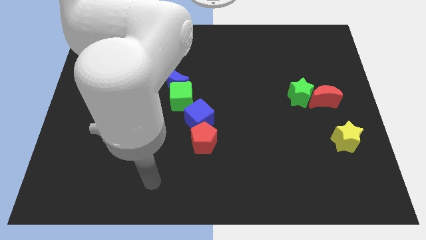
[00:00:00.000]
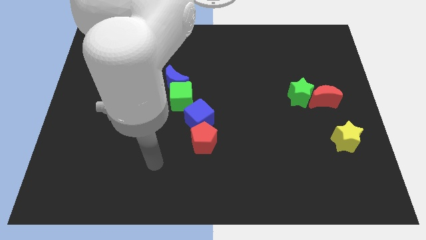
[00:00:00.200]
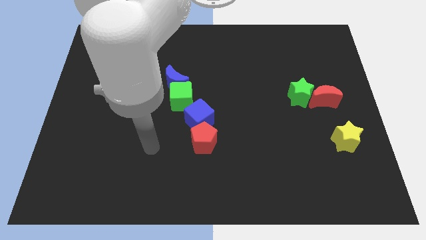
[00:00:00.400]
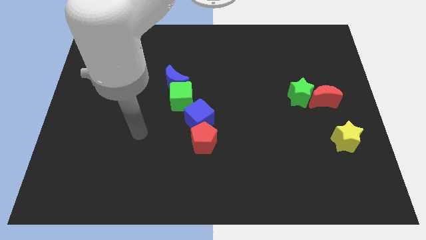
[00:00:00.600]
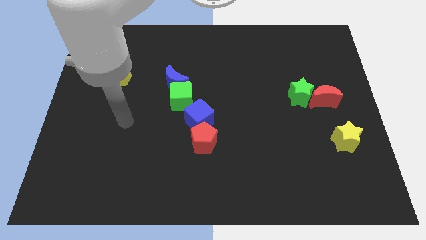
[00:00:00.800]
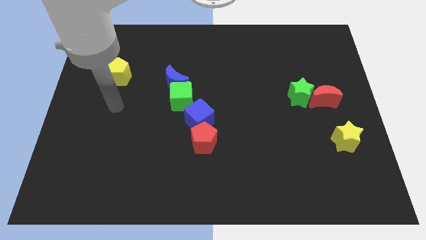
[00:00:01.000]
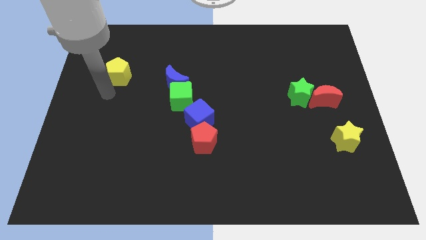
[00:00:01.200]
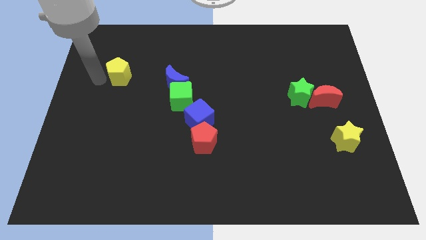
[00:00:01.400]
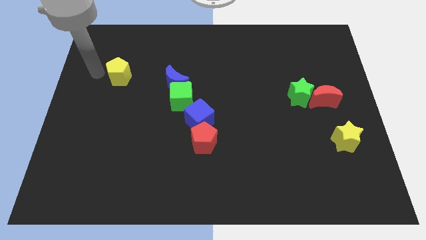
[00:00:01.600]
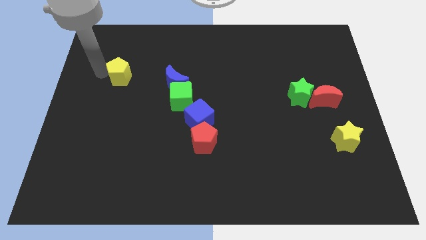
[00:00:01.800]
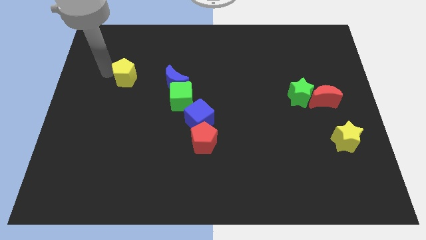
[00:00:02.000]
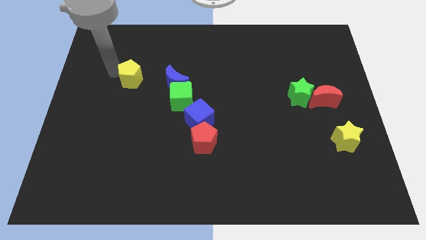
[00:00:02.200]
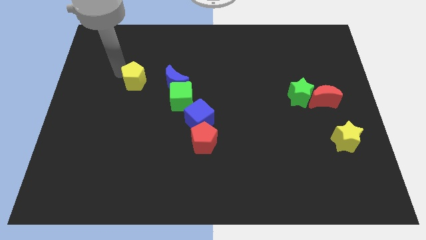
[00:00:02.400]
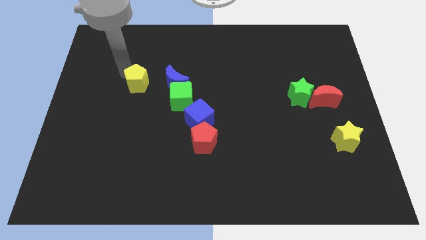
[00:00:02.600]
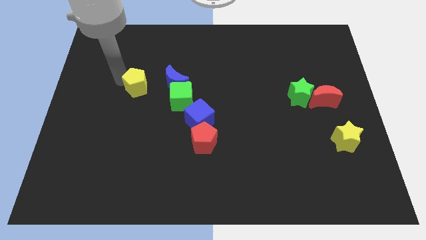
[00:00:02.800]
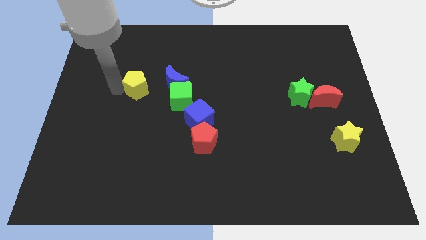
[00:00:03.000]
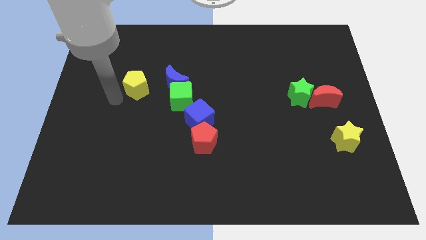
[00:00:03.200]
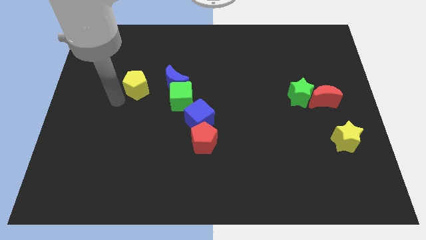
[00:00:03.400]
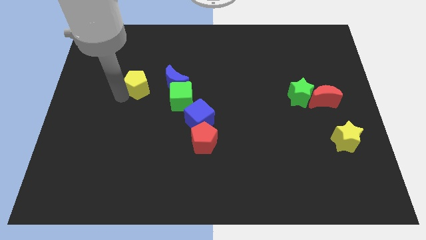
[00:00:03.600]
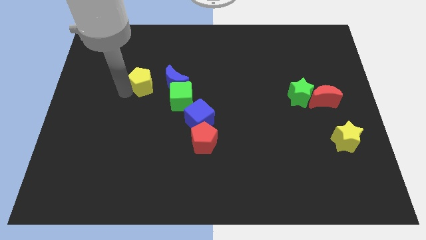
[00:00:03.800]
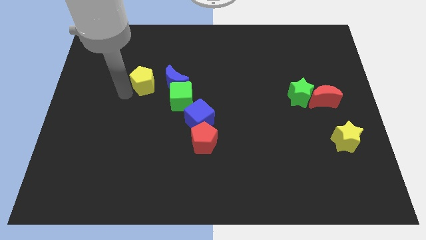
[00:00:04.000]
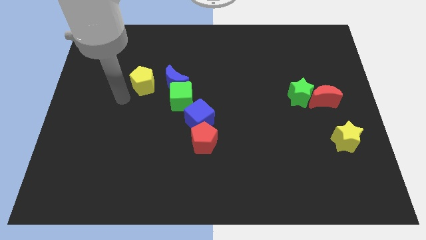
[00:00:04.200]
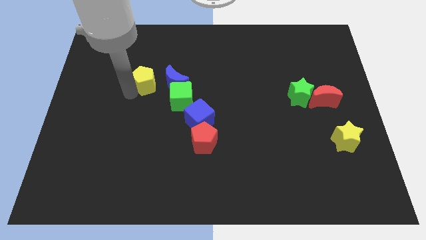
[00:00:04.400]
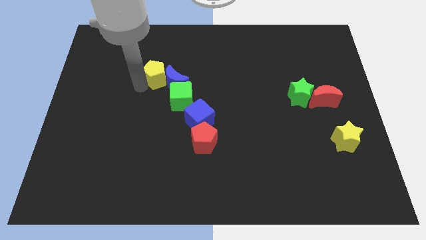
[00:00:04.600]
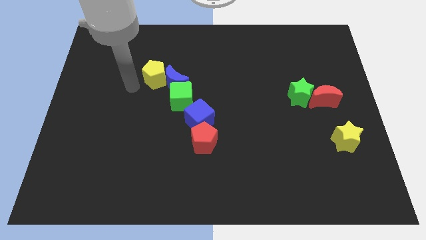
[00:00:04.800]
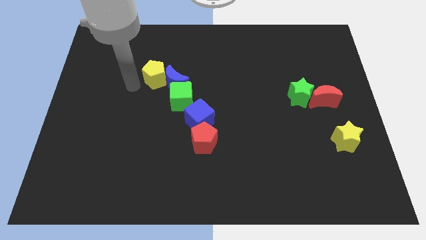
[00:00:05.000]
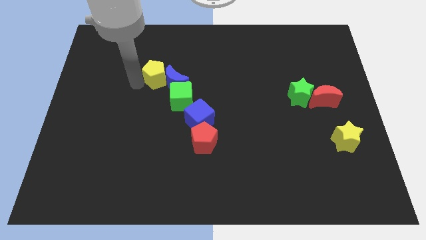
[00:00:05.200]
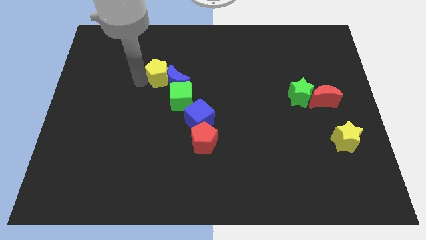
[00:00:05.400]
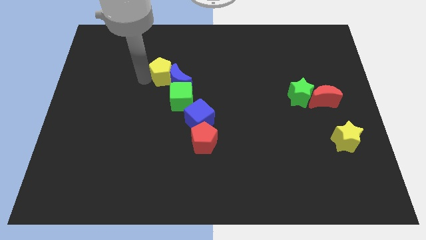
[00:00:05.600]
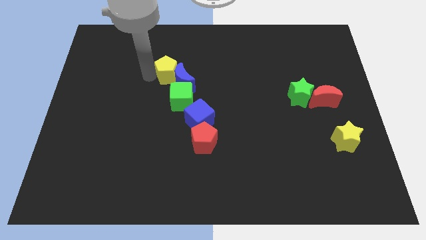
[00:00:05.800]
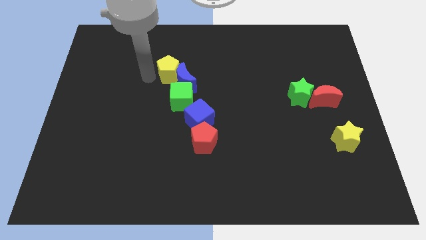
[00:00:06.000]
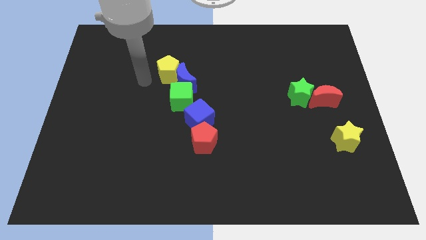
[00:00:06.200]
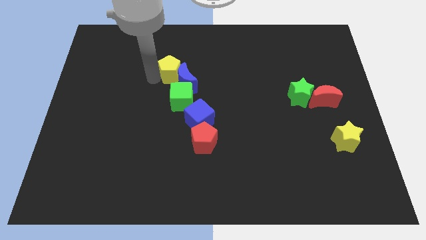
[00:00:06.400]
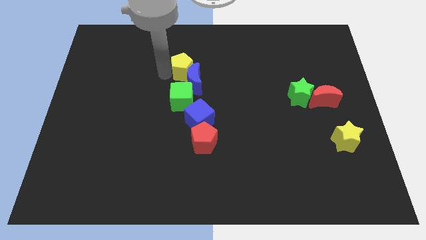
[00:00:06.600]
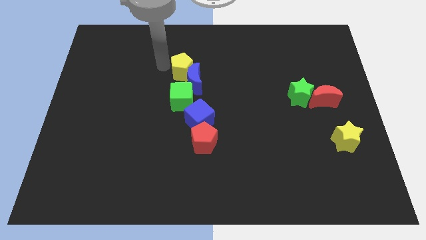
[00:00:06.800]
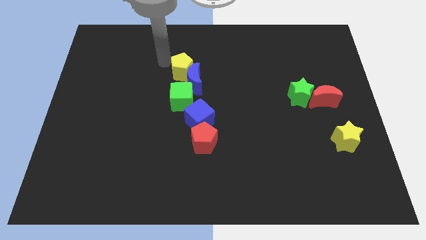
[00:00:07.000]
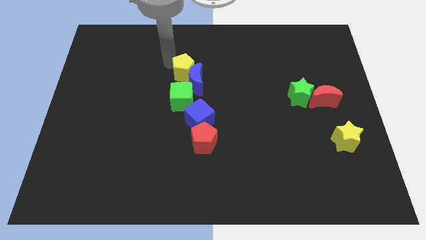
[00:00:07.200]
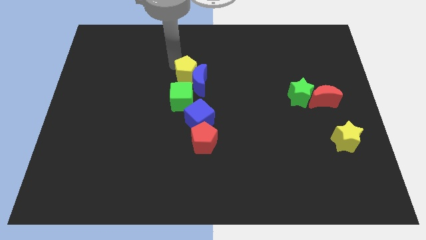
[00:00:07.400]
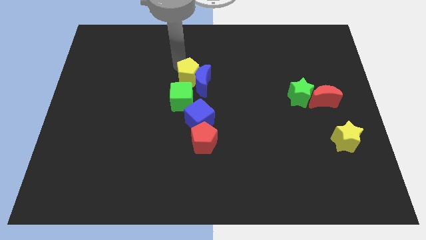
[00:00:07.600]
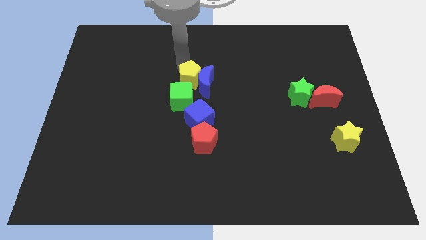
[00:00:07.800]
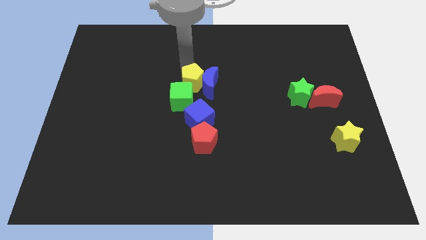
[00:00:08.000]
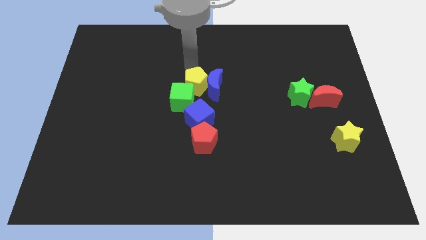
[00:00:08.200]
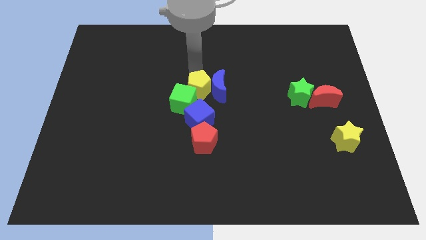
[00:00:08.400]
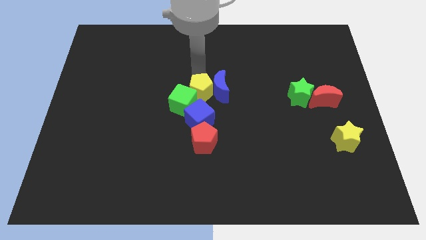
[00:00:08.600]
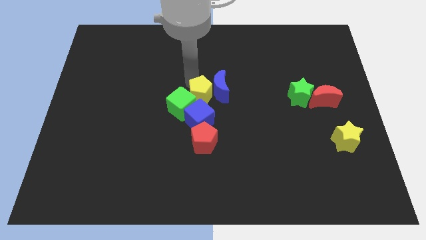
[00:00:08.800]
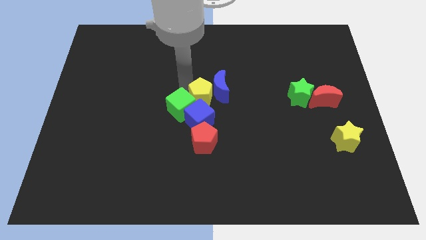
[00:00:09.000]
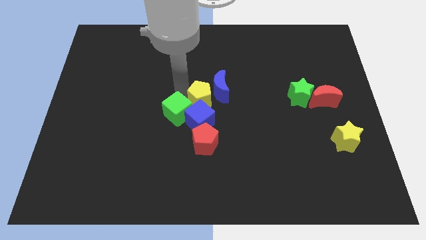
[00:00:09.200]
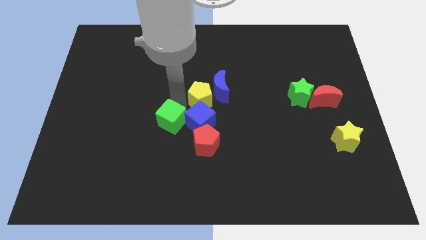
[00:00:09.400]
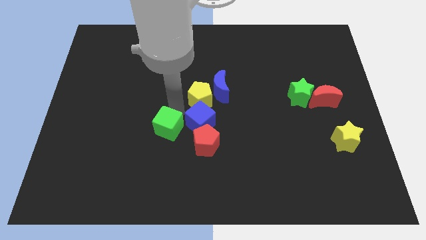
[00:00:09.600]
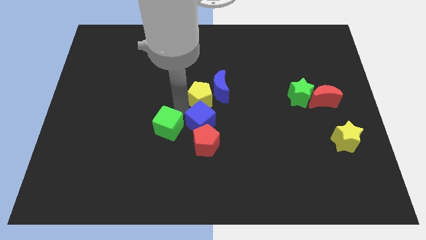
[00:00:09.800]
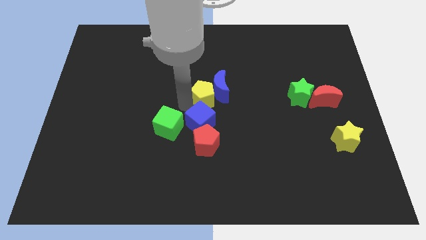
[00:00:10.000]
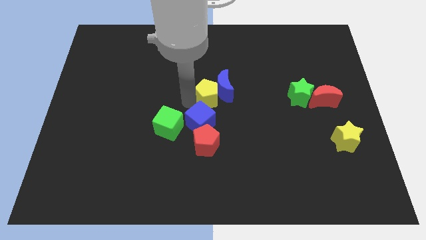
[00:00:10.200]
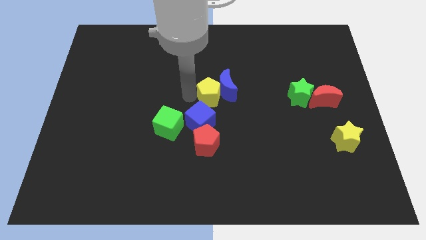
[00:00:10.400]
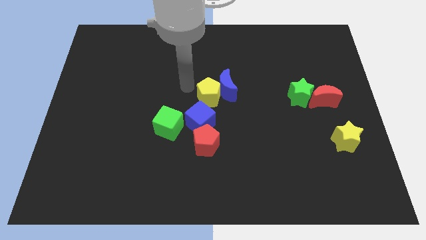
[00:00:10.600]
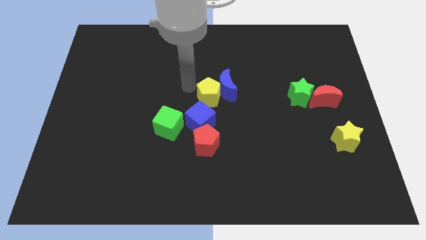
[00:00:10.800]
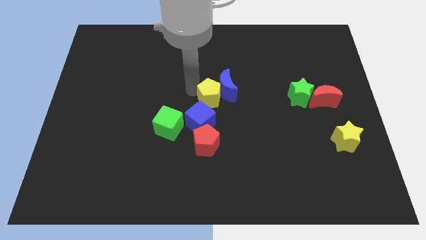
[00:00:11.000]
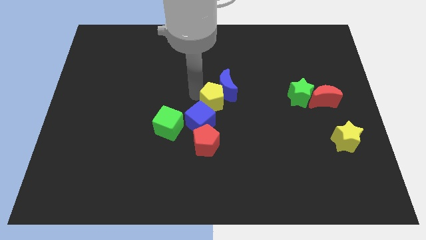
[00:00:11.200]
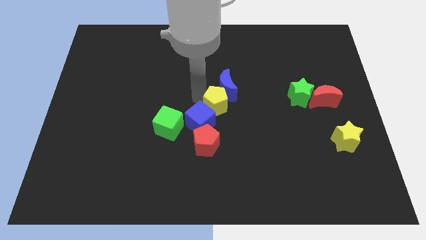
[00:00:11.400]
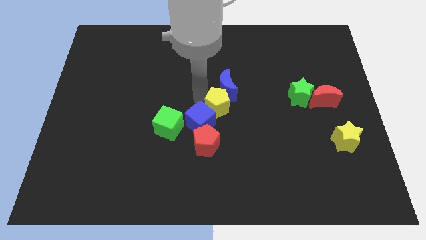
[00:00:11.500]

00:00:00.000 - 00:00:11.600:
move the yellow pentagon right of the blue cube

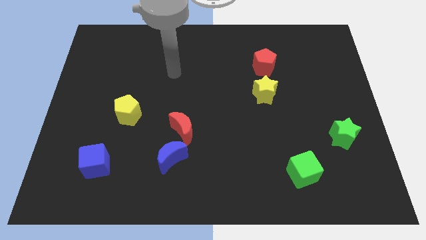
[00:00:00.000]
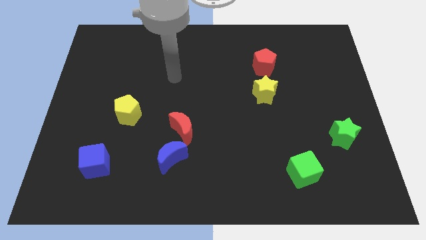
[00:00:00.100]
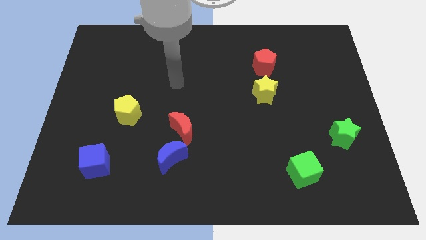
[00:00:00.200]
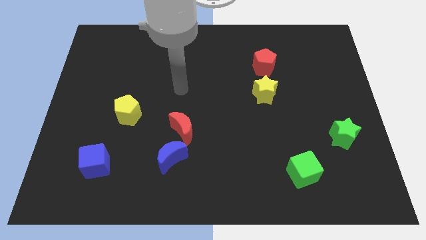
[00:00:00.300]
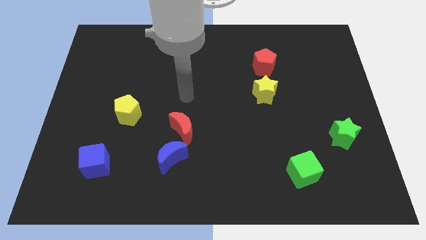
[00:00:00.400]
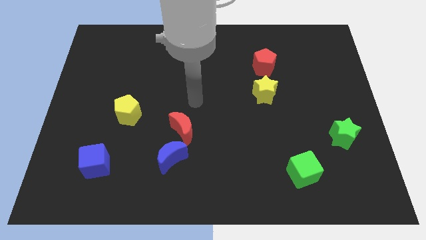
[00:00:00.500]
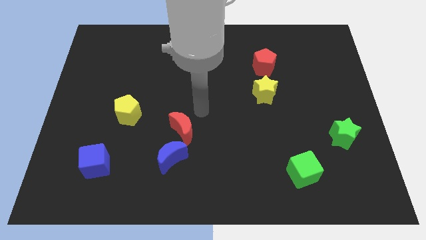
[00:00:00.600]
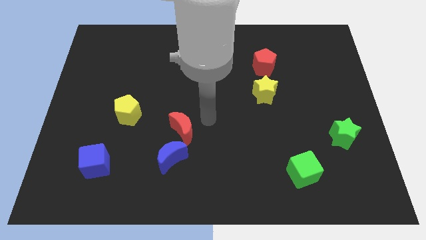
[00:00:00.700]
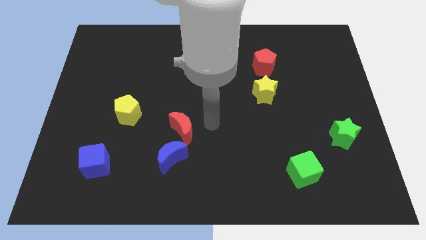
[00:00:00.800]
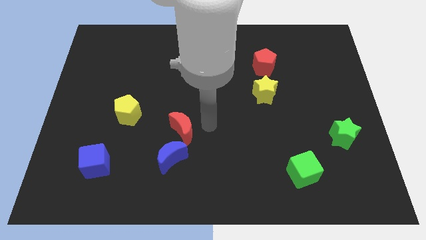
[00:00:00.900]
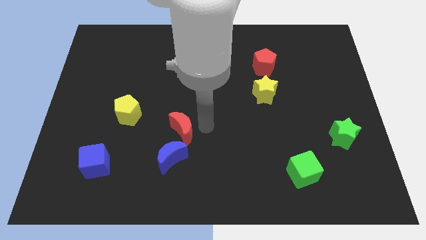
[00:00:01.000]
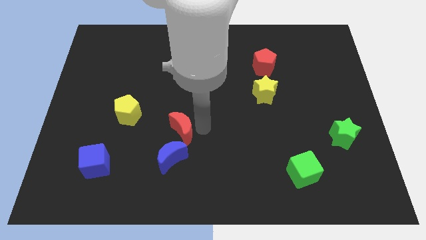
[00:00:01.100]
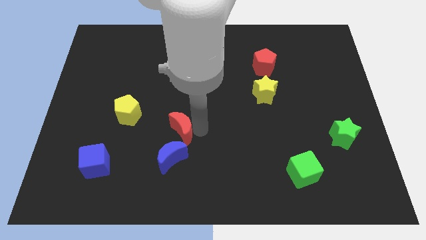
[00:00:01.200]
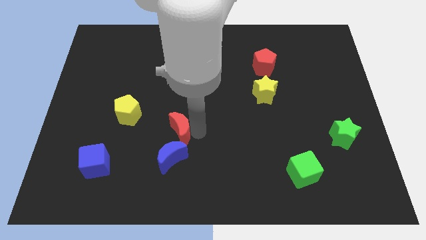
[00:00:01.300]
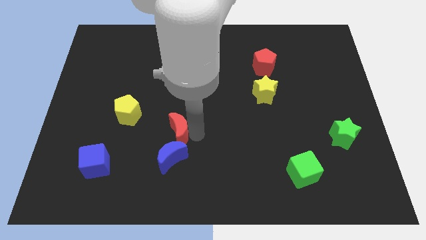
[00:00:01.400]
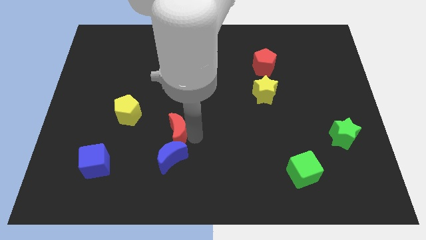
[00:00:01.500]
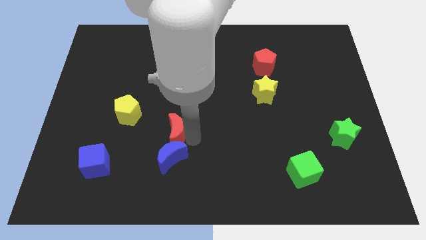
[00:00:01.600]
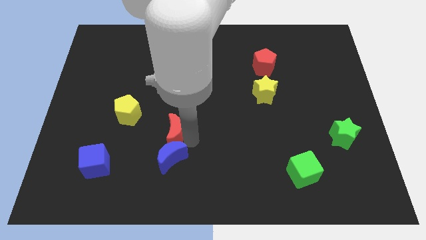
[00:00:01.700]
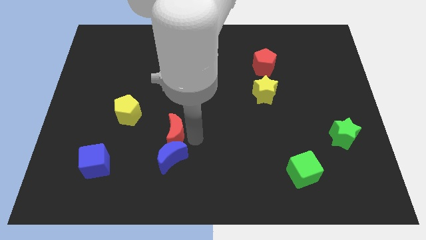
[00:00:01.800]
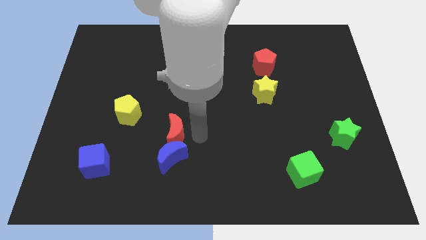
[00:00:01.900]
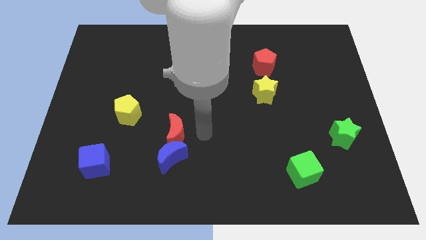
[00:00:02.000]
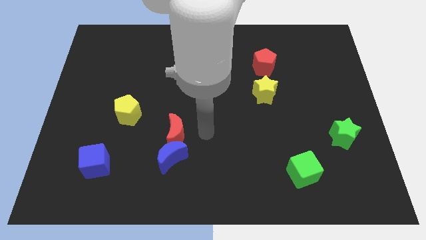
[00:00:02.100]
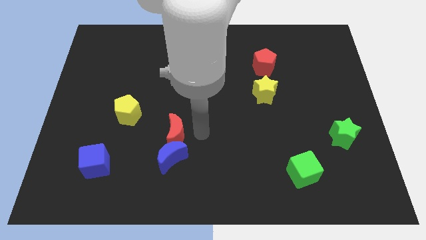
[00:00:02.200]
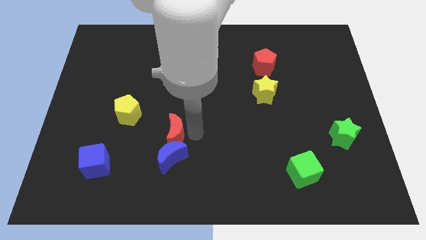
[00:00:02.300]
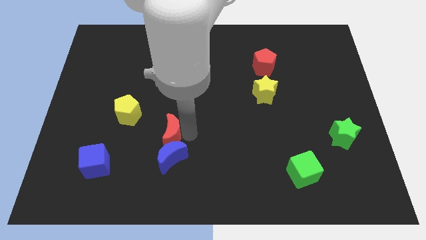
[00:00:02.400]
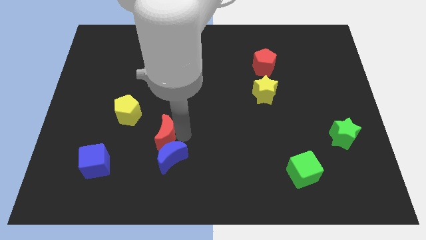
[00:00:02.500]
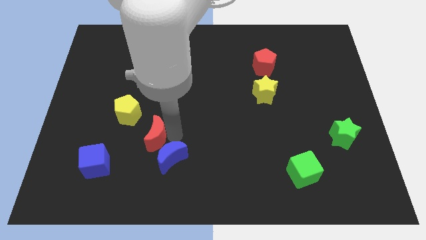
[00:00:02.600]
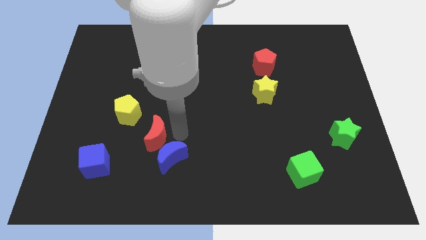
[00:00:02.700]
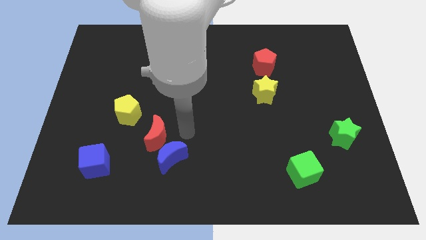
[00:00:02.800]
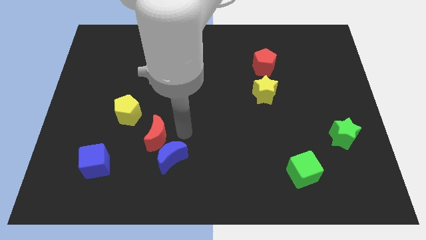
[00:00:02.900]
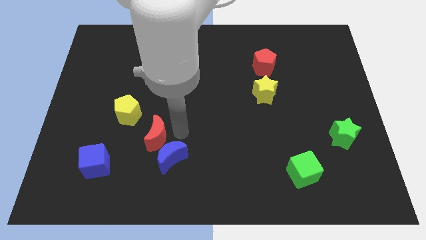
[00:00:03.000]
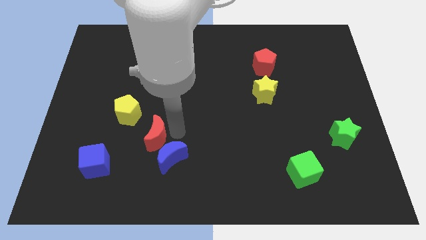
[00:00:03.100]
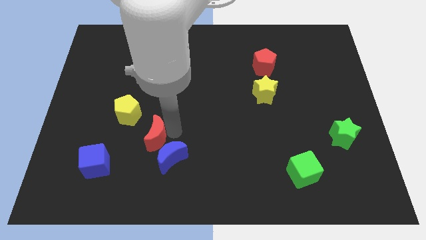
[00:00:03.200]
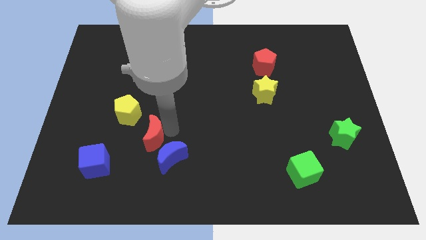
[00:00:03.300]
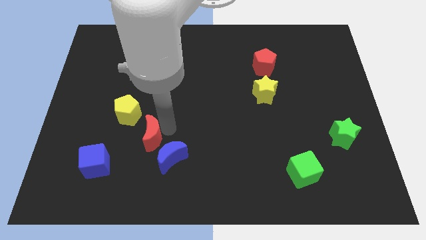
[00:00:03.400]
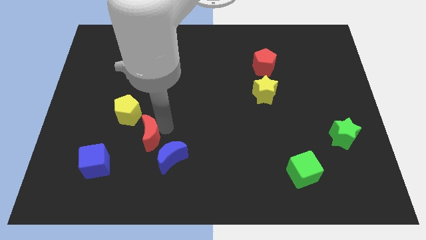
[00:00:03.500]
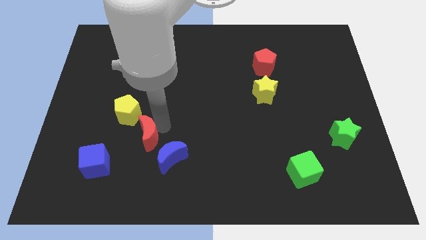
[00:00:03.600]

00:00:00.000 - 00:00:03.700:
move the red moon to the top right side of the blue cube
